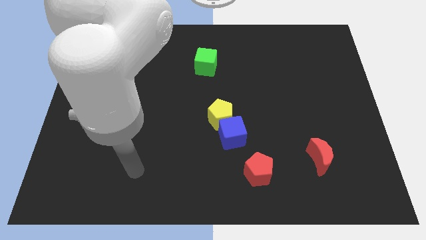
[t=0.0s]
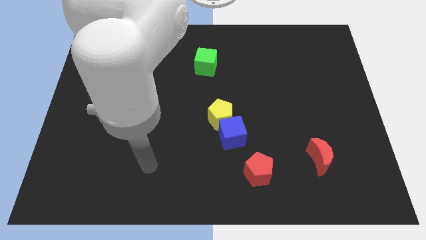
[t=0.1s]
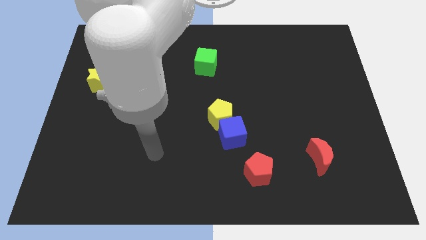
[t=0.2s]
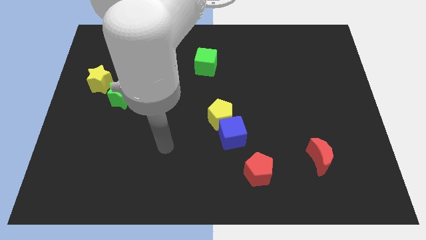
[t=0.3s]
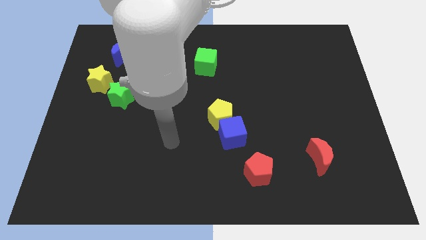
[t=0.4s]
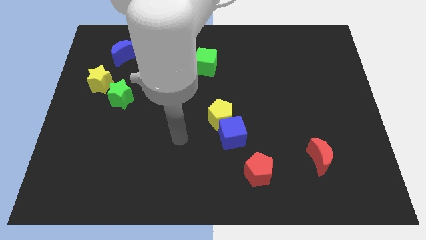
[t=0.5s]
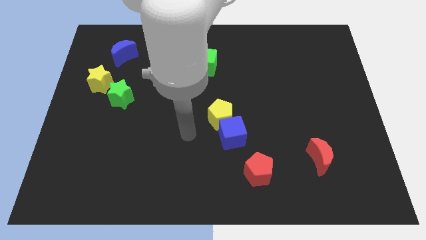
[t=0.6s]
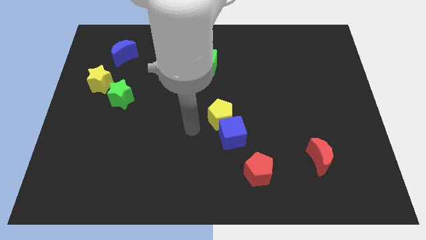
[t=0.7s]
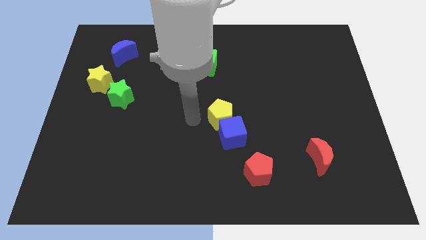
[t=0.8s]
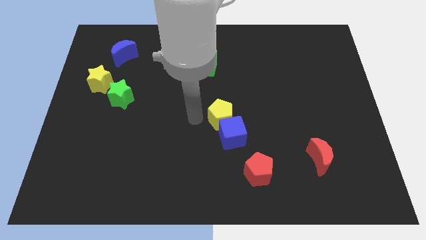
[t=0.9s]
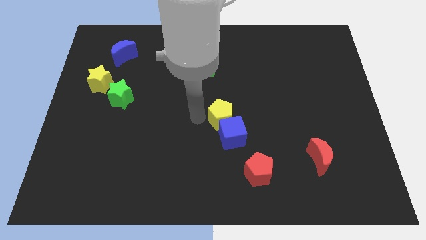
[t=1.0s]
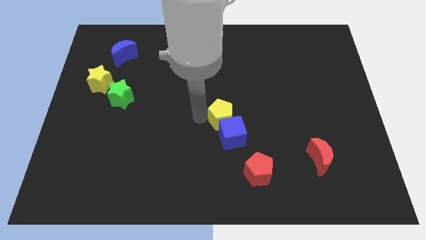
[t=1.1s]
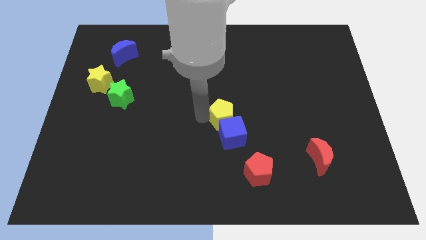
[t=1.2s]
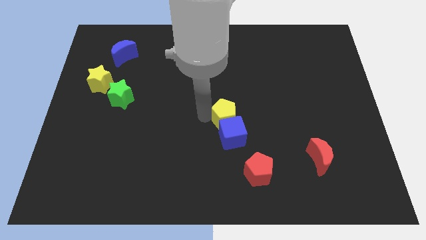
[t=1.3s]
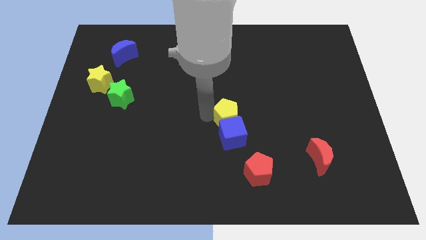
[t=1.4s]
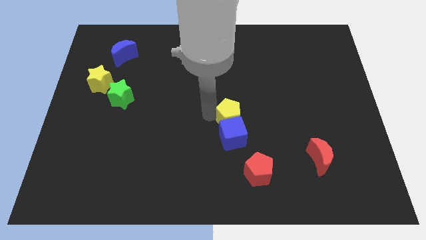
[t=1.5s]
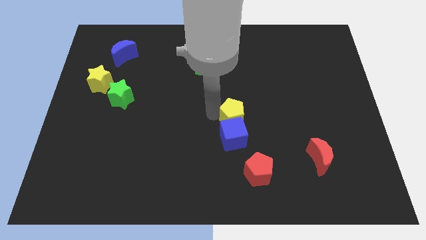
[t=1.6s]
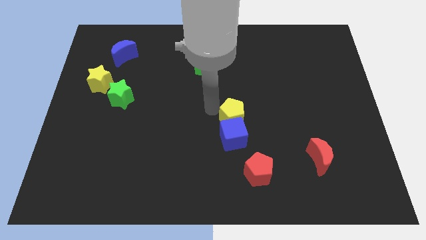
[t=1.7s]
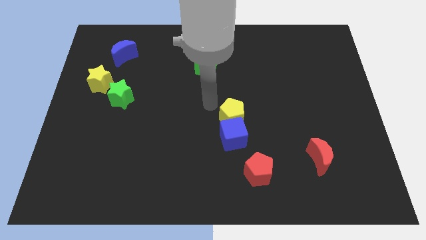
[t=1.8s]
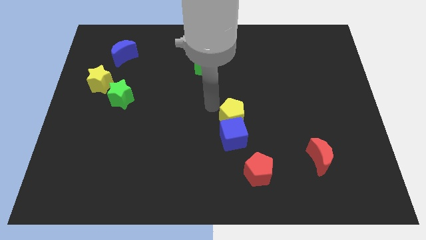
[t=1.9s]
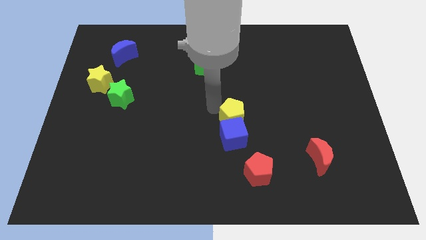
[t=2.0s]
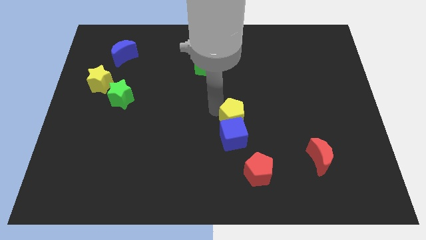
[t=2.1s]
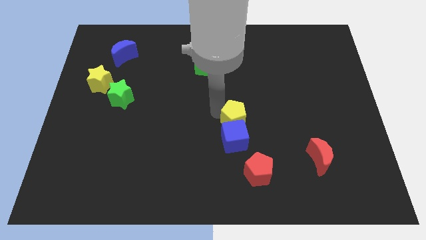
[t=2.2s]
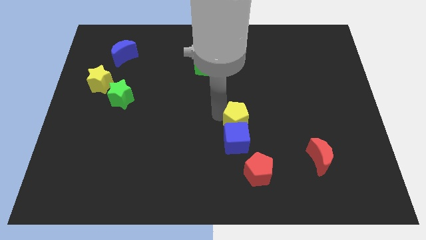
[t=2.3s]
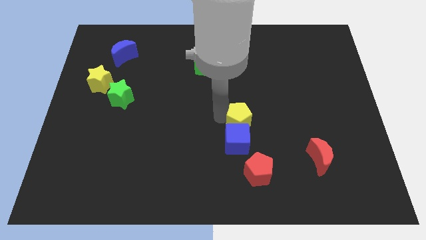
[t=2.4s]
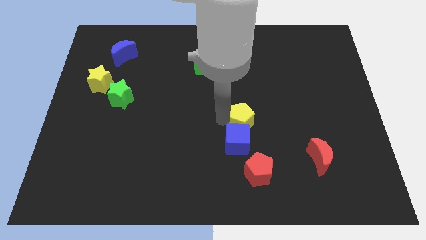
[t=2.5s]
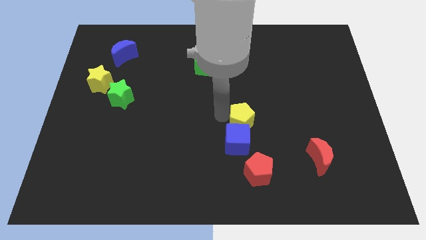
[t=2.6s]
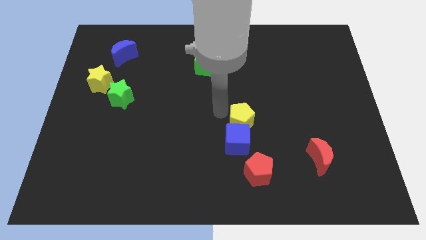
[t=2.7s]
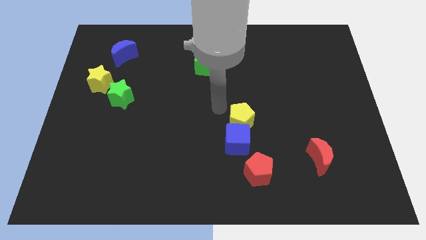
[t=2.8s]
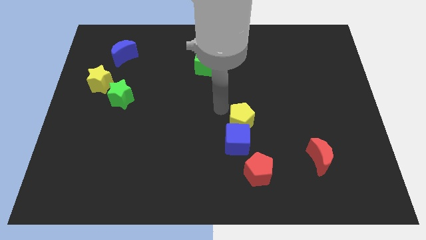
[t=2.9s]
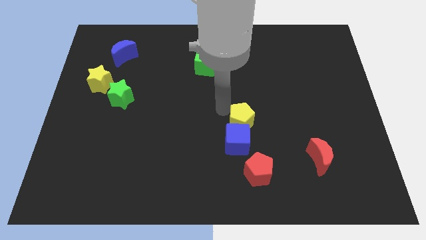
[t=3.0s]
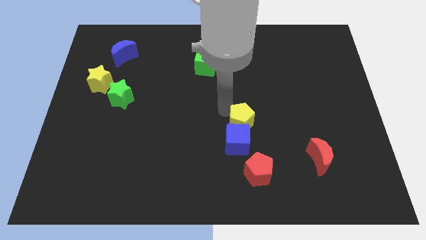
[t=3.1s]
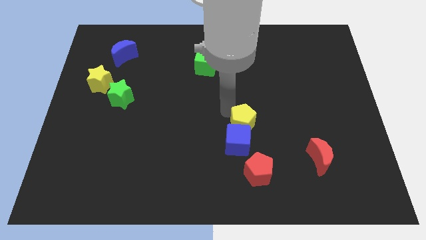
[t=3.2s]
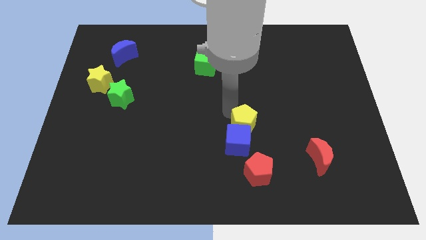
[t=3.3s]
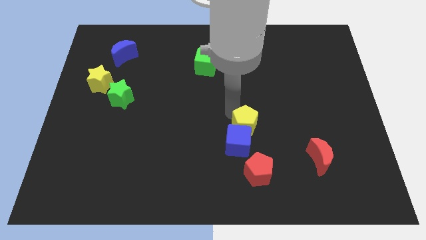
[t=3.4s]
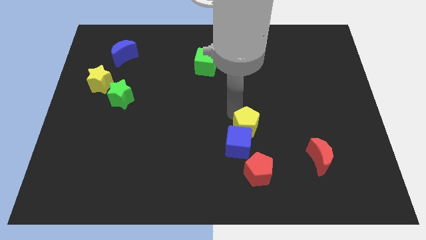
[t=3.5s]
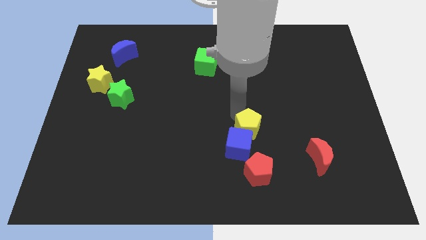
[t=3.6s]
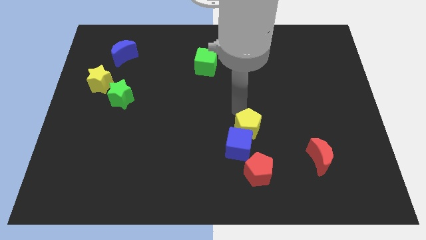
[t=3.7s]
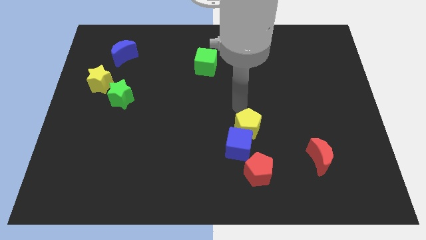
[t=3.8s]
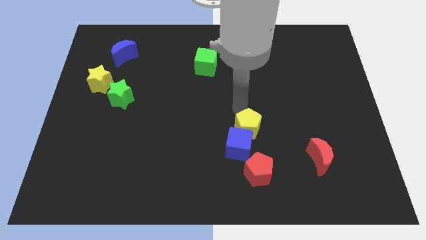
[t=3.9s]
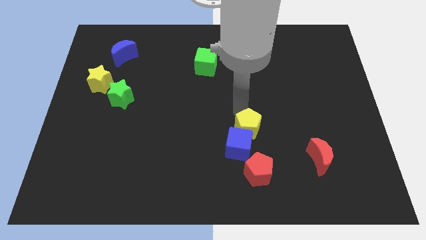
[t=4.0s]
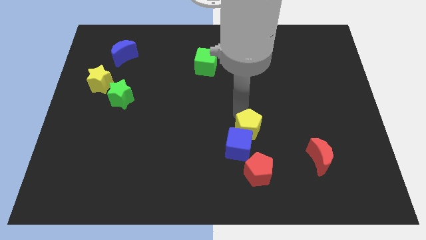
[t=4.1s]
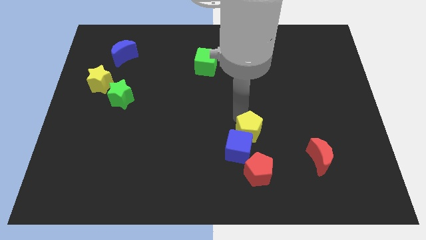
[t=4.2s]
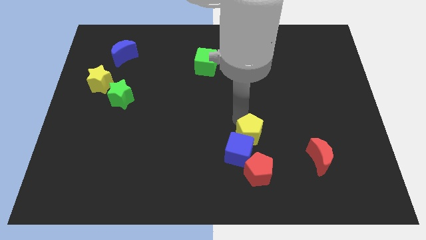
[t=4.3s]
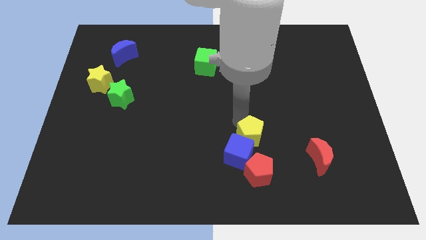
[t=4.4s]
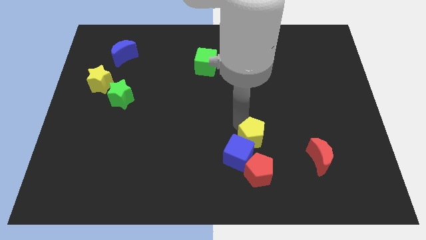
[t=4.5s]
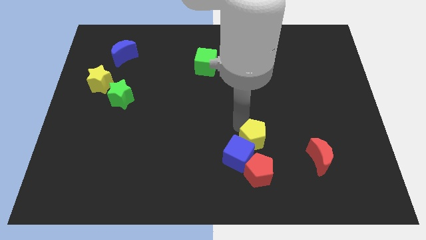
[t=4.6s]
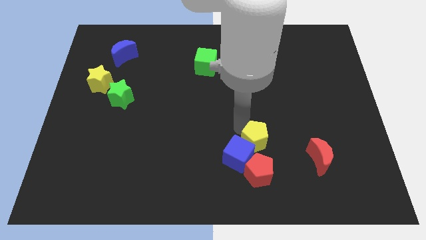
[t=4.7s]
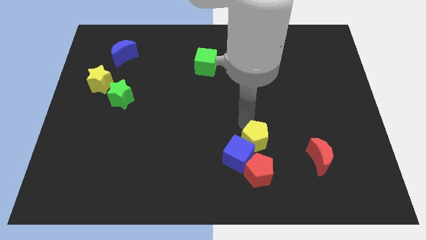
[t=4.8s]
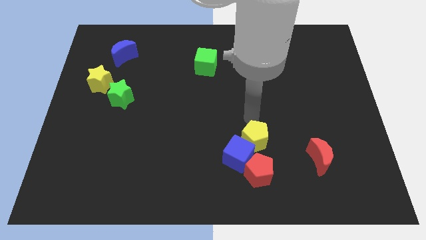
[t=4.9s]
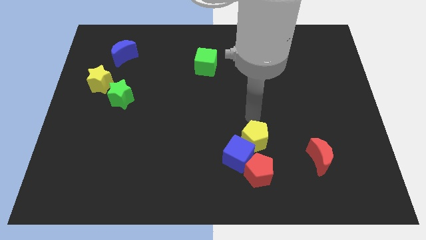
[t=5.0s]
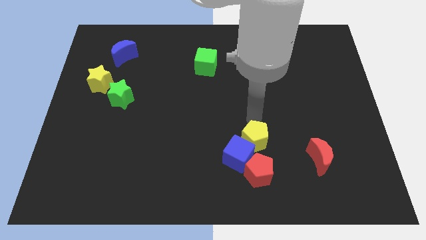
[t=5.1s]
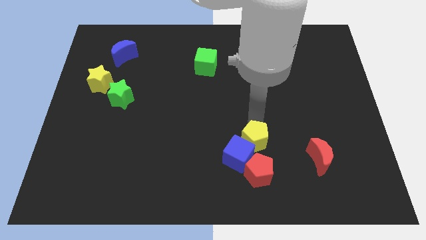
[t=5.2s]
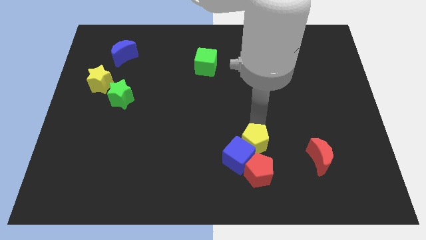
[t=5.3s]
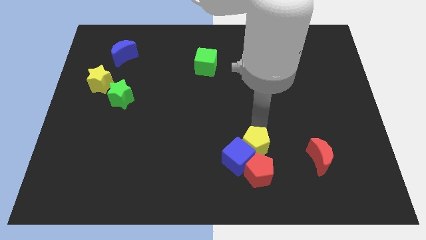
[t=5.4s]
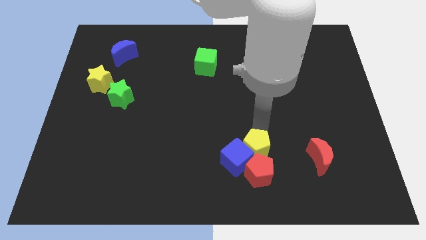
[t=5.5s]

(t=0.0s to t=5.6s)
push the yellow pentagon towards the red pentagon

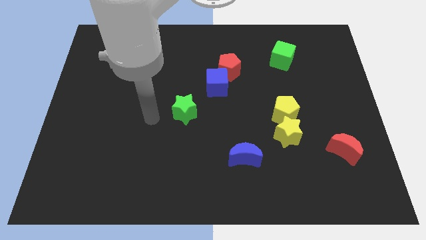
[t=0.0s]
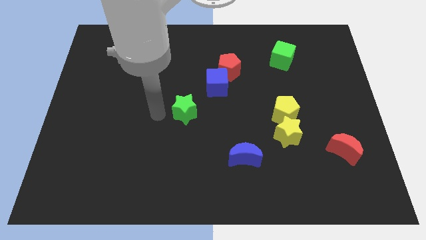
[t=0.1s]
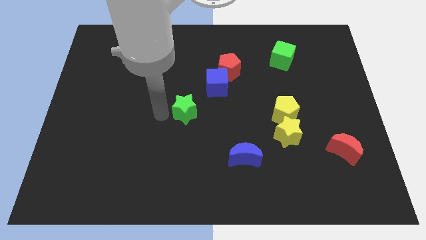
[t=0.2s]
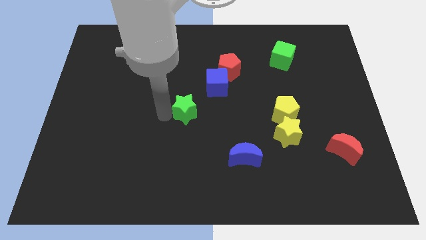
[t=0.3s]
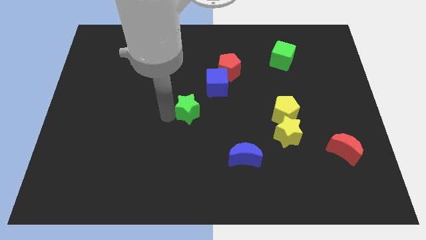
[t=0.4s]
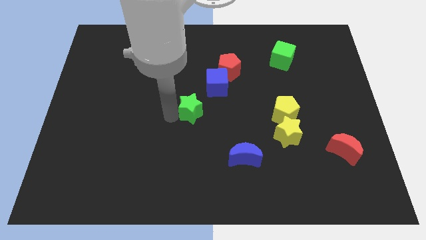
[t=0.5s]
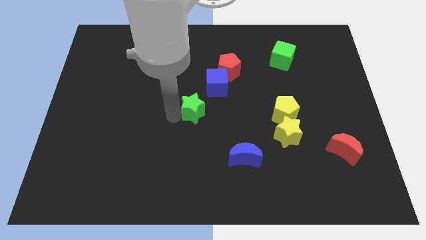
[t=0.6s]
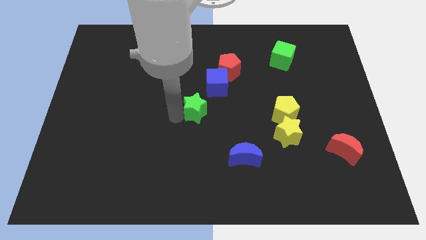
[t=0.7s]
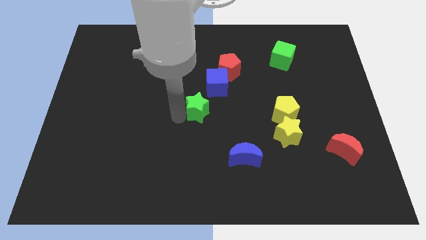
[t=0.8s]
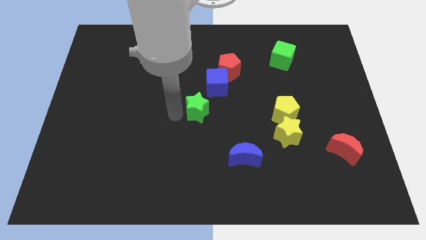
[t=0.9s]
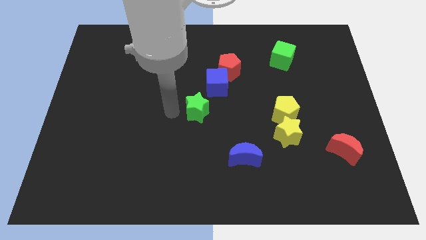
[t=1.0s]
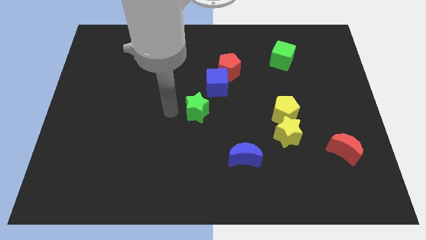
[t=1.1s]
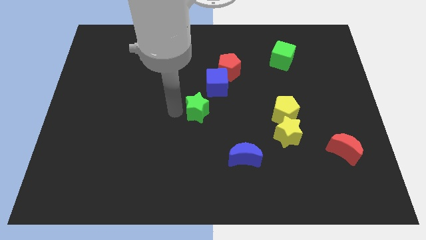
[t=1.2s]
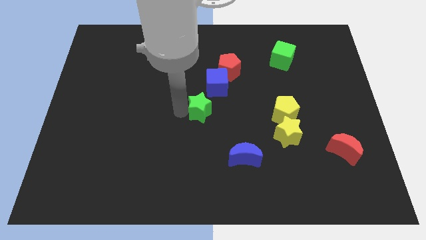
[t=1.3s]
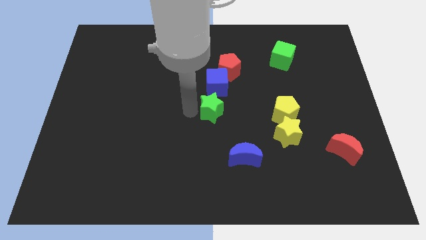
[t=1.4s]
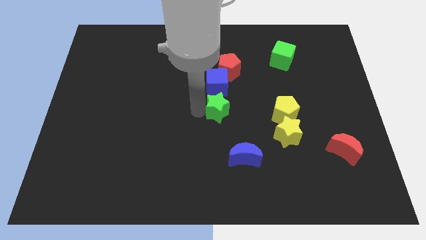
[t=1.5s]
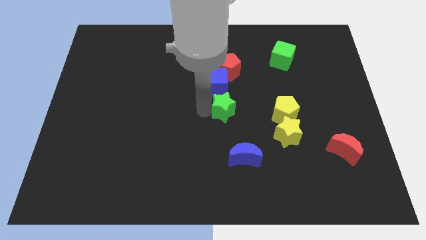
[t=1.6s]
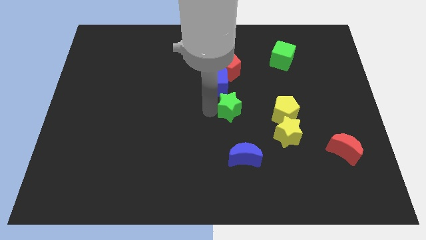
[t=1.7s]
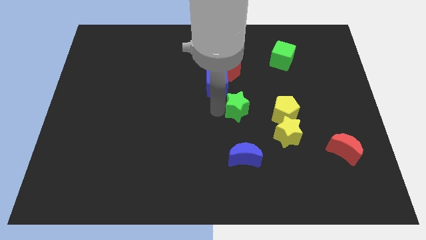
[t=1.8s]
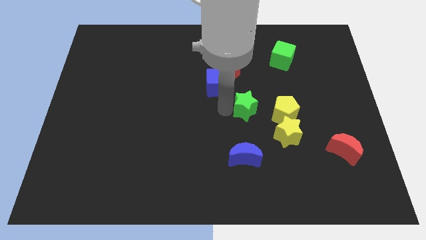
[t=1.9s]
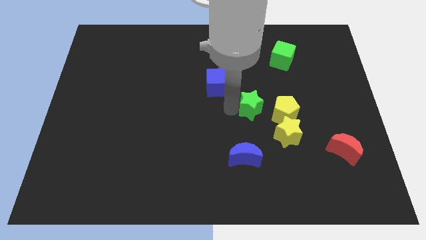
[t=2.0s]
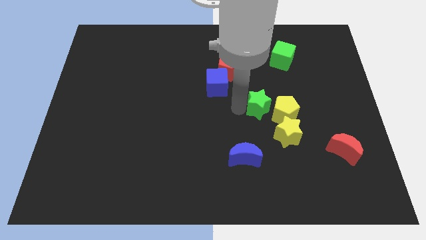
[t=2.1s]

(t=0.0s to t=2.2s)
slide the green star to the yellow pentagon
